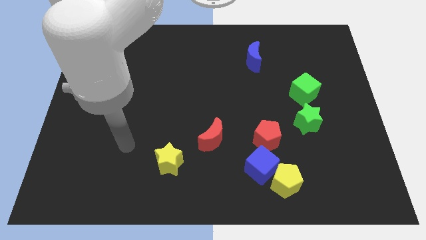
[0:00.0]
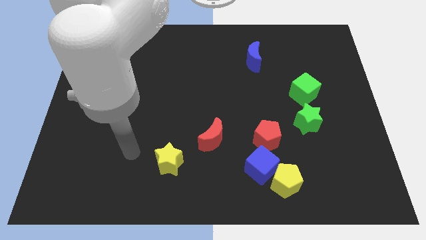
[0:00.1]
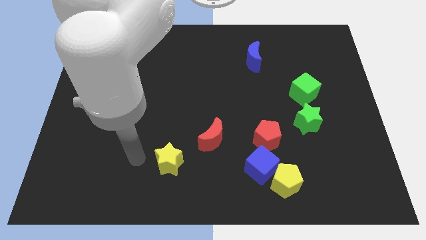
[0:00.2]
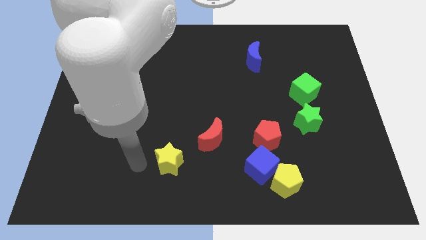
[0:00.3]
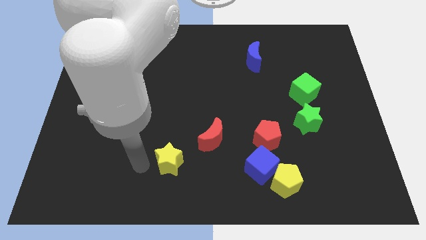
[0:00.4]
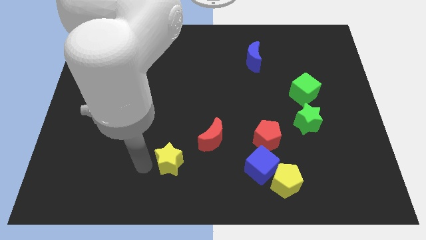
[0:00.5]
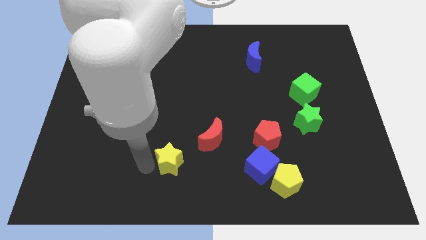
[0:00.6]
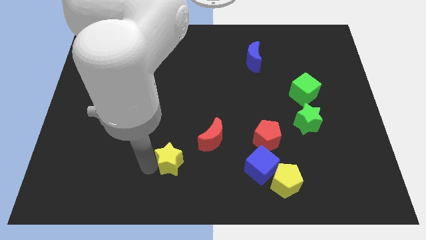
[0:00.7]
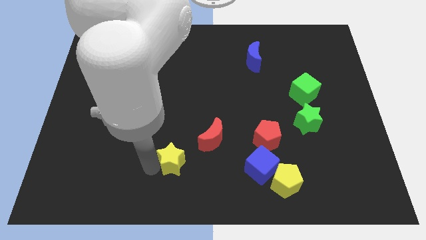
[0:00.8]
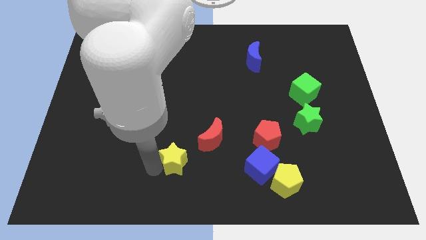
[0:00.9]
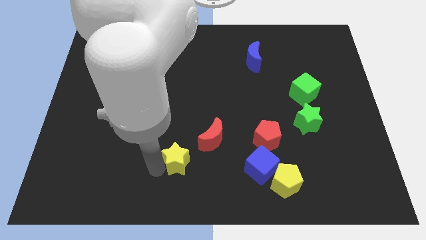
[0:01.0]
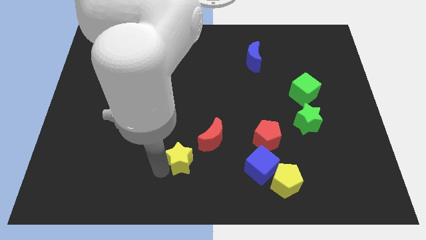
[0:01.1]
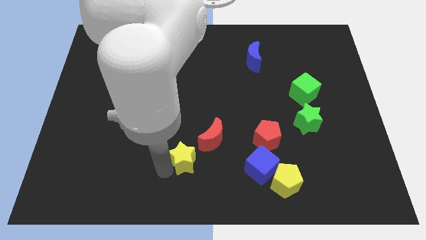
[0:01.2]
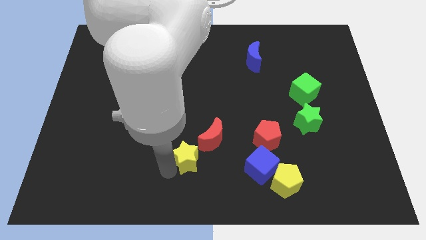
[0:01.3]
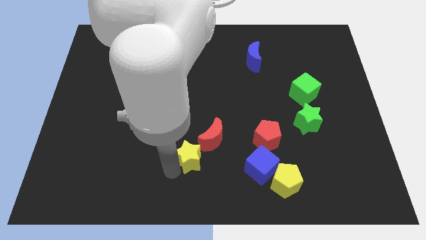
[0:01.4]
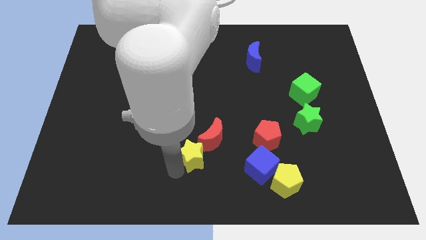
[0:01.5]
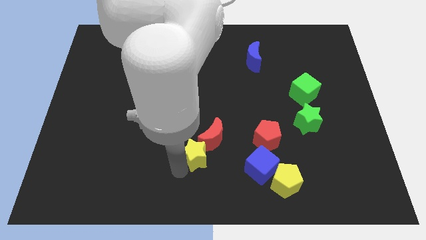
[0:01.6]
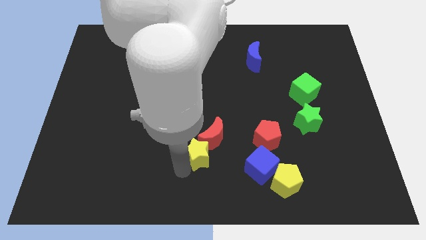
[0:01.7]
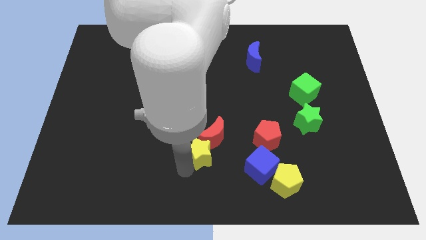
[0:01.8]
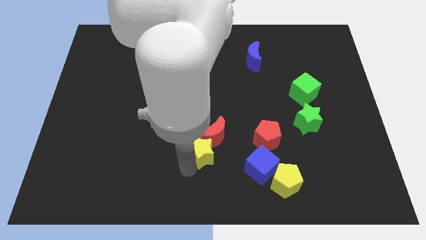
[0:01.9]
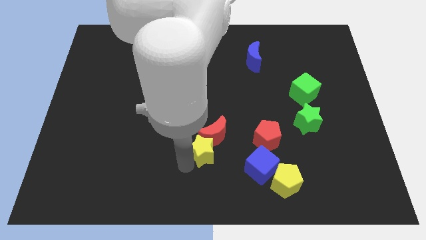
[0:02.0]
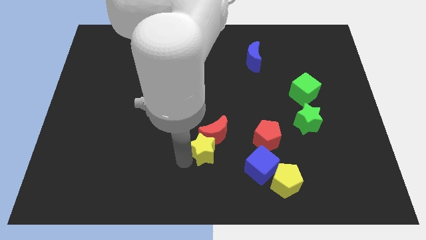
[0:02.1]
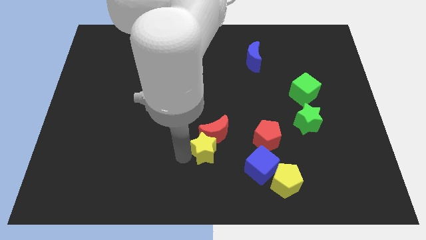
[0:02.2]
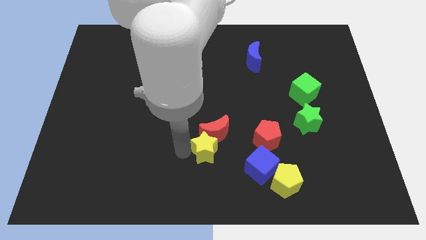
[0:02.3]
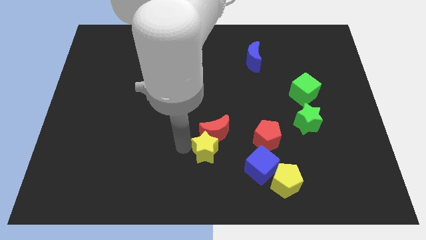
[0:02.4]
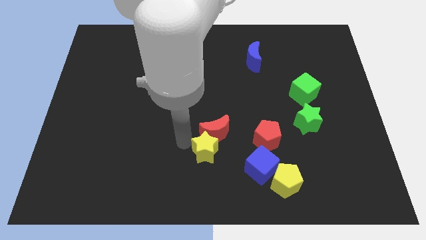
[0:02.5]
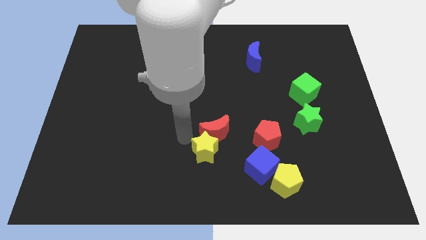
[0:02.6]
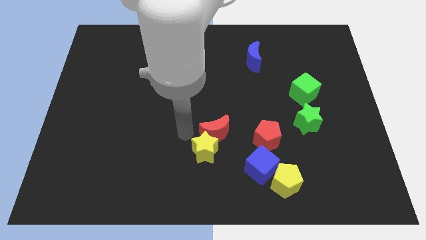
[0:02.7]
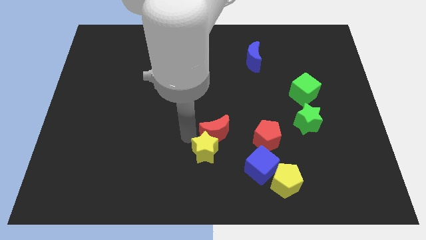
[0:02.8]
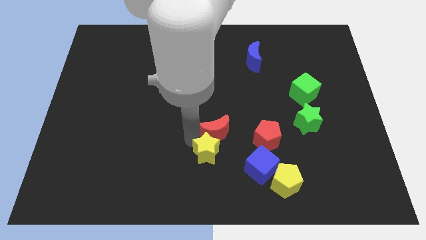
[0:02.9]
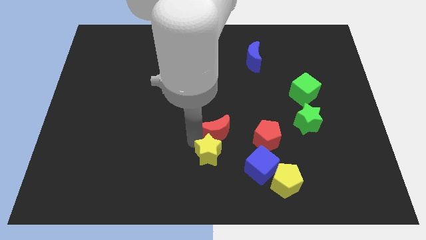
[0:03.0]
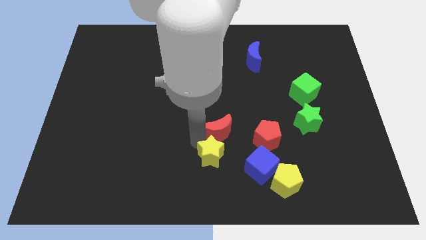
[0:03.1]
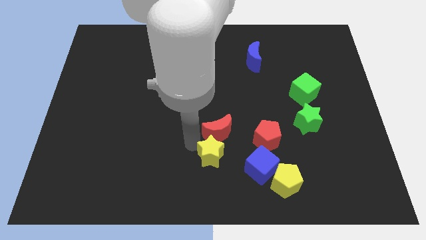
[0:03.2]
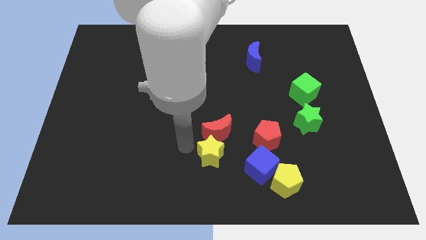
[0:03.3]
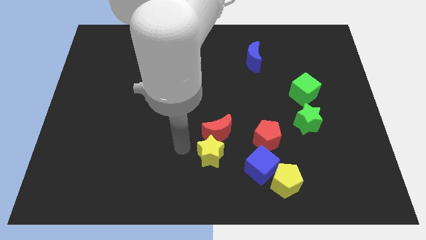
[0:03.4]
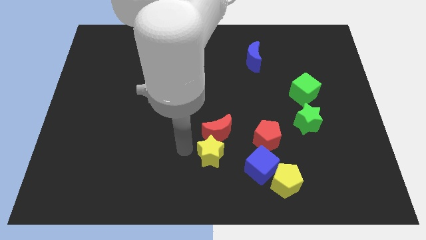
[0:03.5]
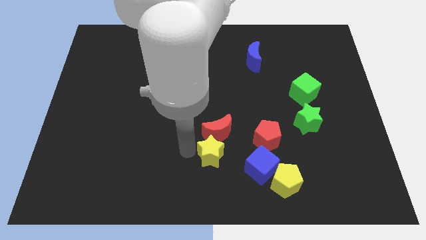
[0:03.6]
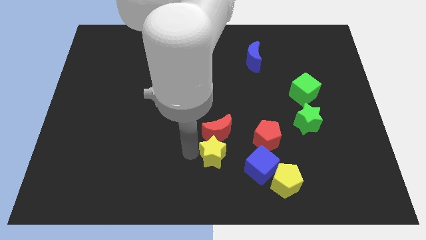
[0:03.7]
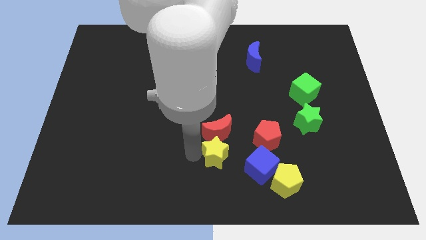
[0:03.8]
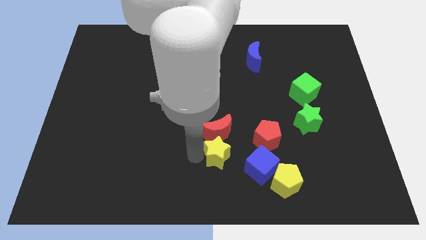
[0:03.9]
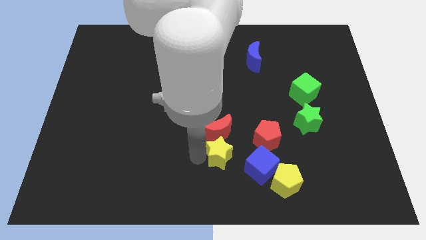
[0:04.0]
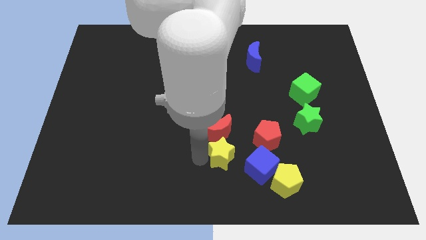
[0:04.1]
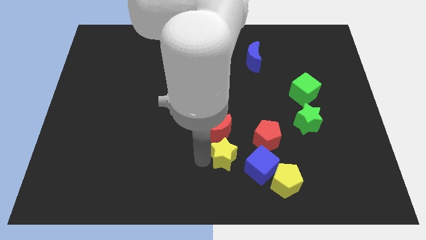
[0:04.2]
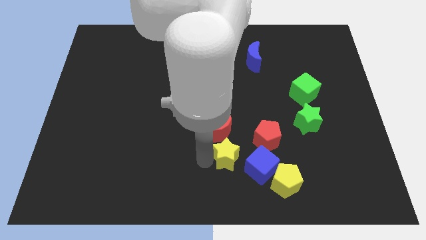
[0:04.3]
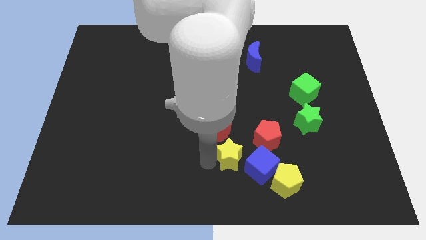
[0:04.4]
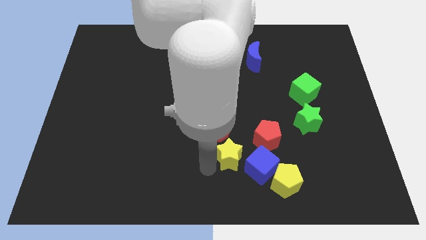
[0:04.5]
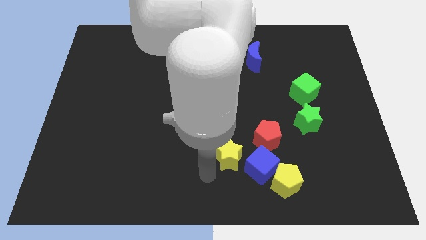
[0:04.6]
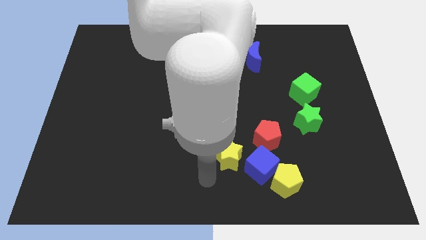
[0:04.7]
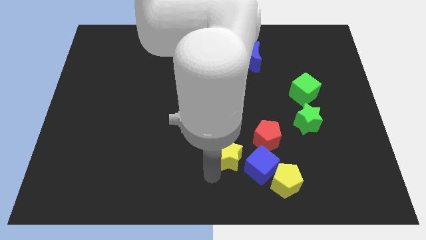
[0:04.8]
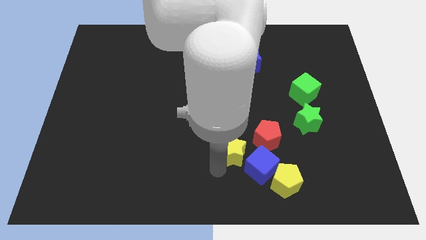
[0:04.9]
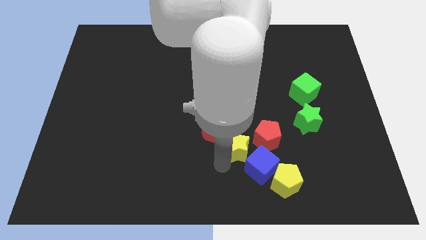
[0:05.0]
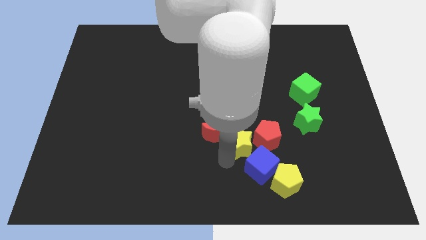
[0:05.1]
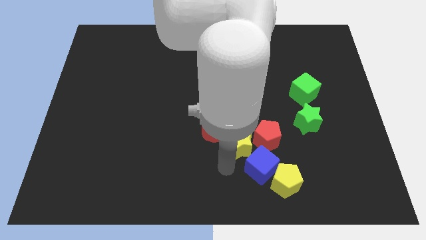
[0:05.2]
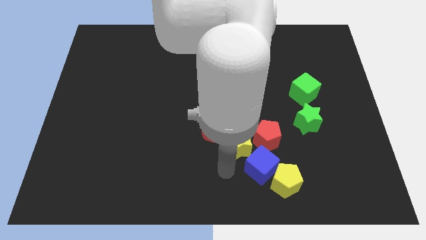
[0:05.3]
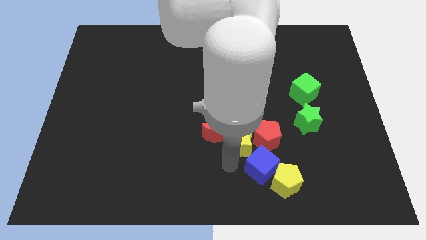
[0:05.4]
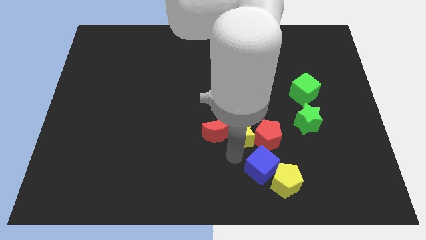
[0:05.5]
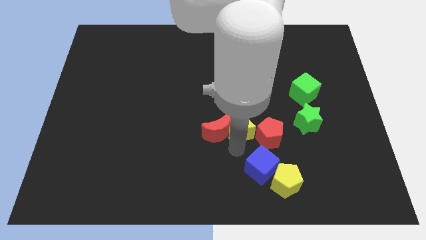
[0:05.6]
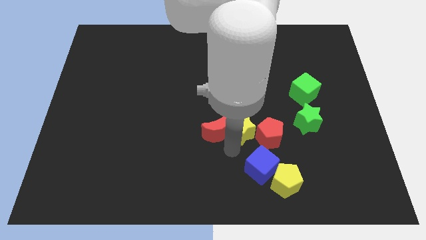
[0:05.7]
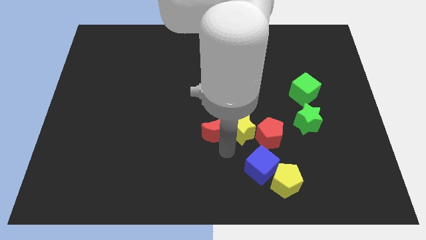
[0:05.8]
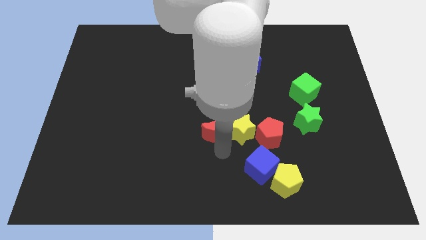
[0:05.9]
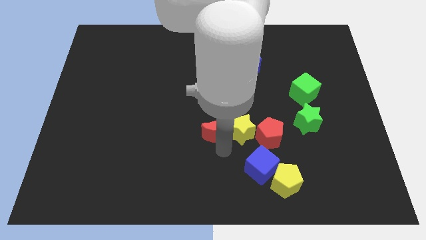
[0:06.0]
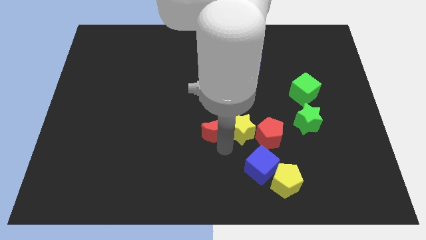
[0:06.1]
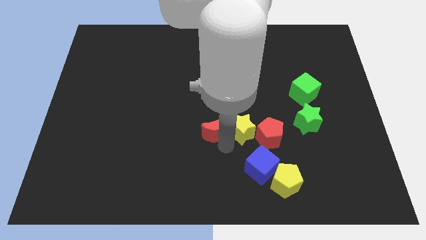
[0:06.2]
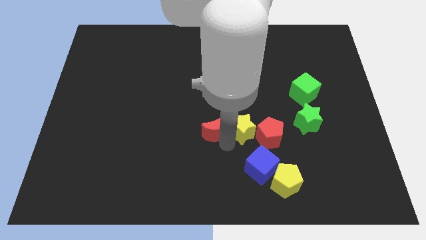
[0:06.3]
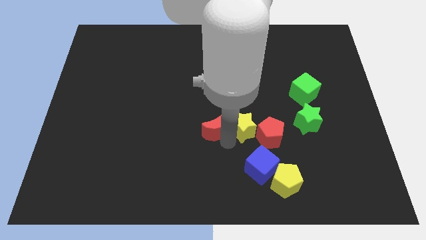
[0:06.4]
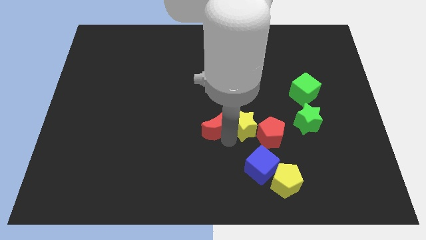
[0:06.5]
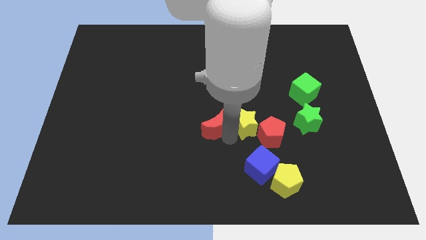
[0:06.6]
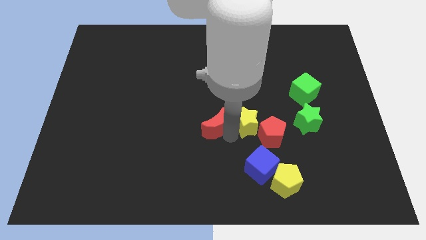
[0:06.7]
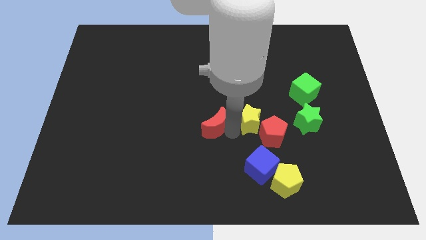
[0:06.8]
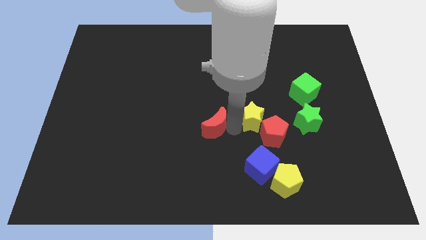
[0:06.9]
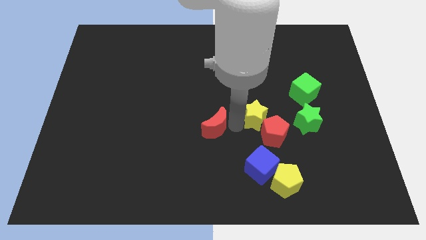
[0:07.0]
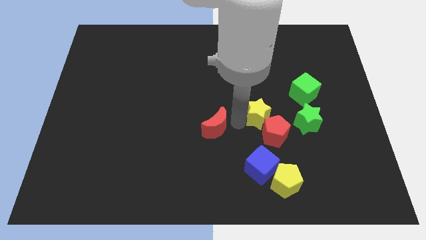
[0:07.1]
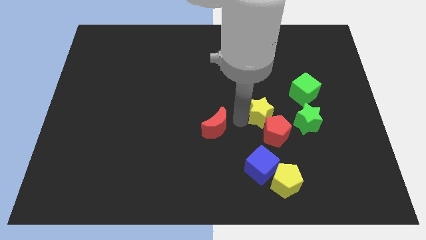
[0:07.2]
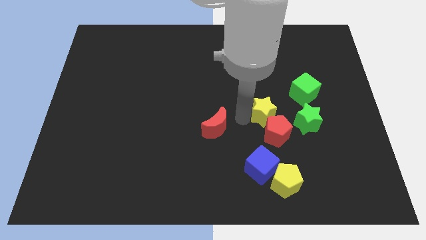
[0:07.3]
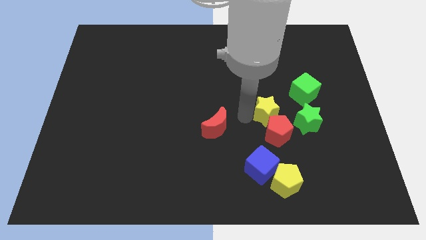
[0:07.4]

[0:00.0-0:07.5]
move the yellow star to the bottom left of the green cube
